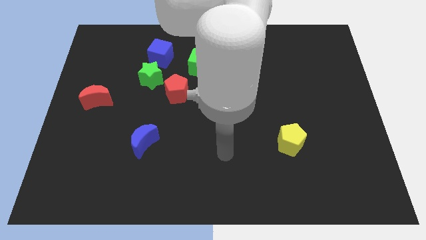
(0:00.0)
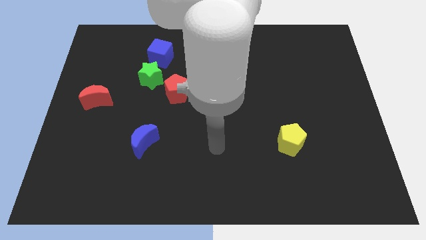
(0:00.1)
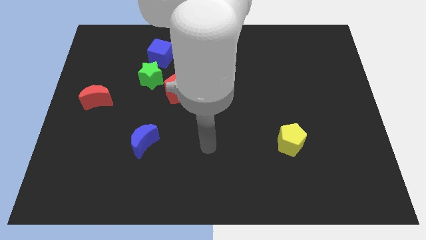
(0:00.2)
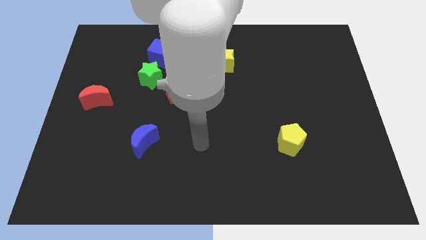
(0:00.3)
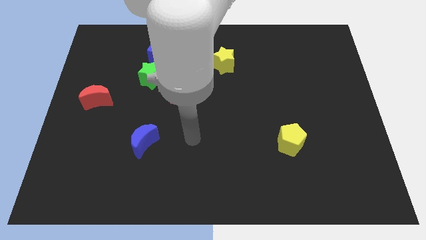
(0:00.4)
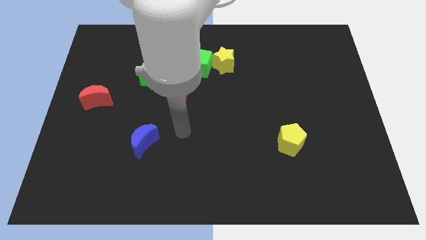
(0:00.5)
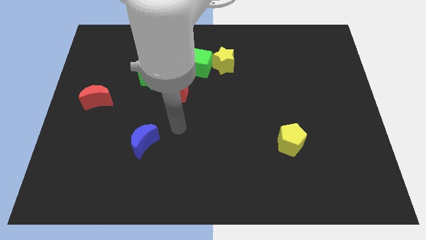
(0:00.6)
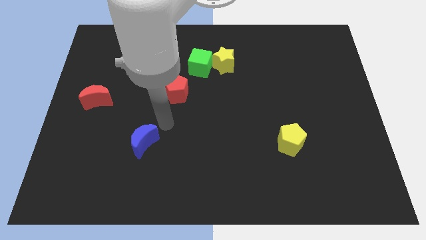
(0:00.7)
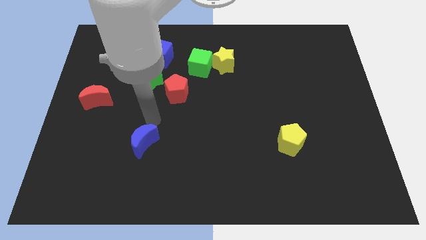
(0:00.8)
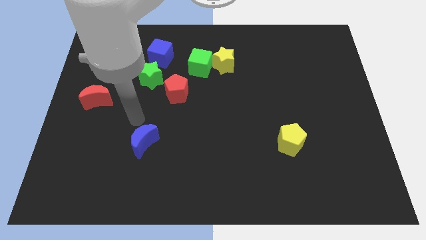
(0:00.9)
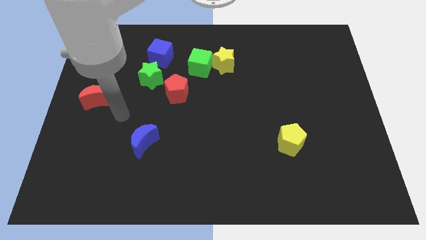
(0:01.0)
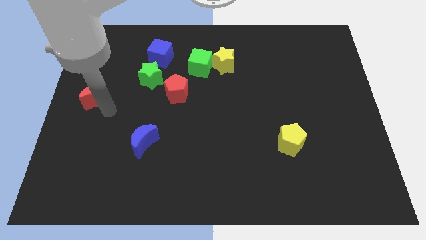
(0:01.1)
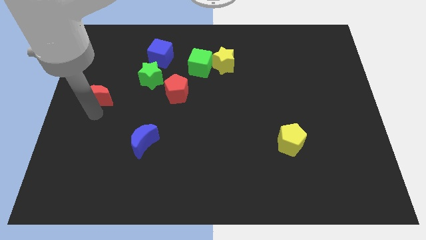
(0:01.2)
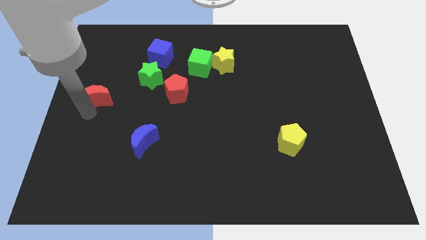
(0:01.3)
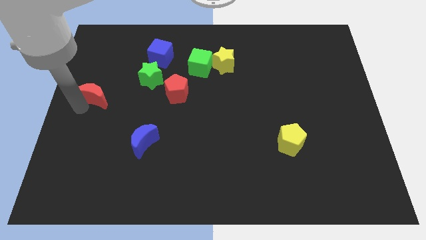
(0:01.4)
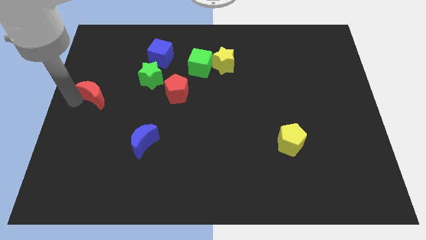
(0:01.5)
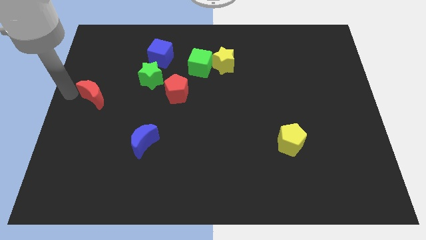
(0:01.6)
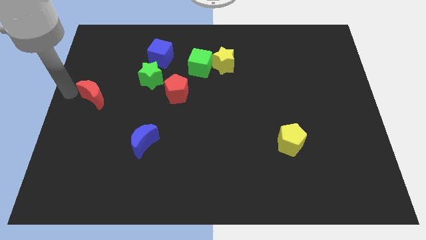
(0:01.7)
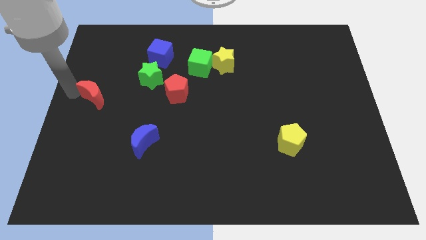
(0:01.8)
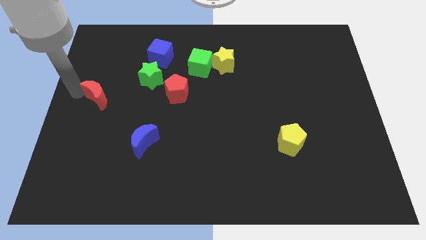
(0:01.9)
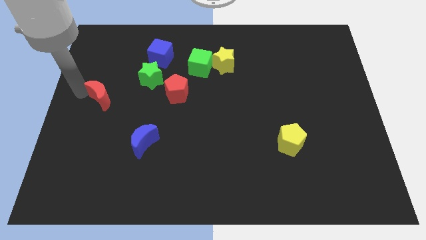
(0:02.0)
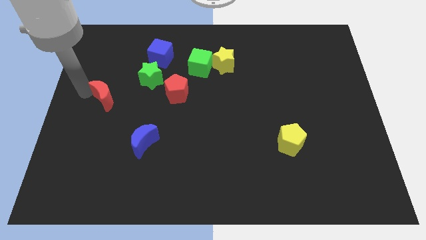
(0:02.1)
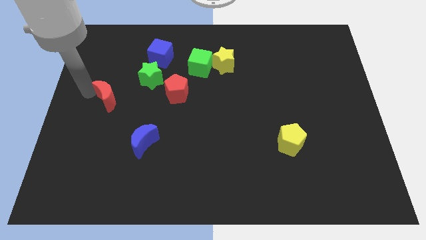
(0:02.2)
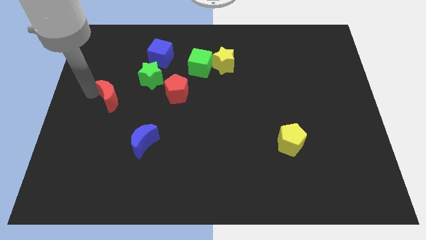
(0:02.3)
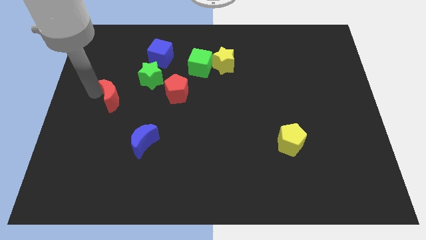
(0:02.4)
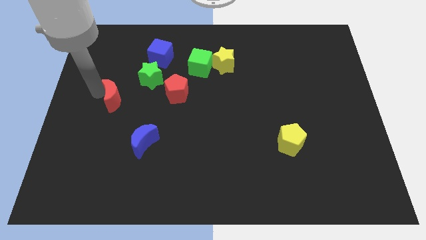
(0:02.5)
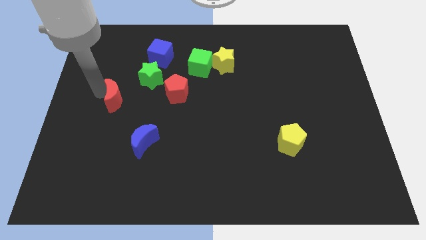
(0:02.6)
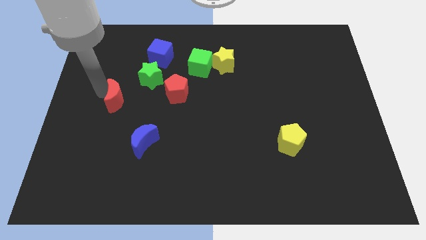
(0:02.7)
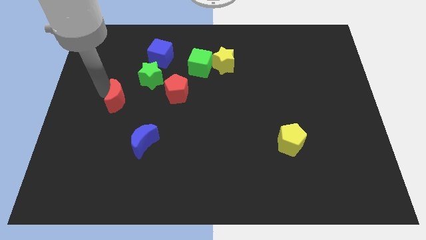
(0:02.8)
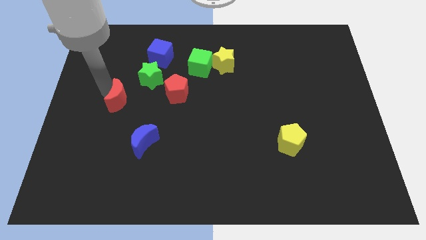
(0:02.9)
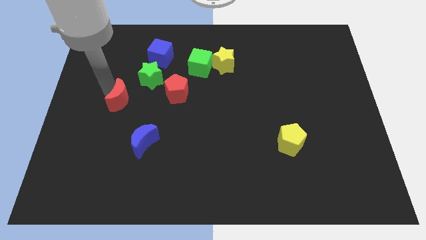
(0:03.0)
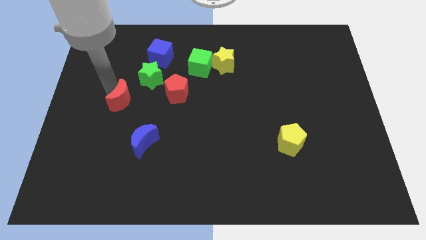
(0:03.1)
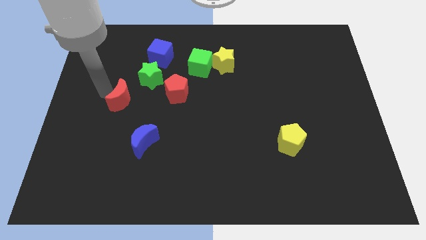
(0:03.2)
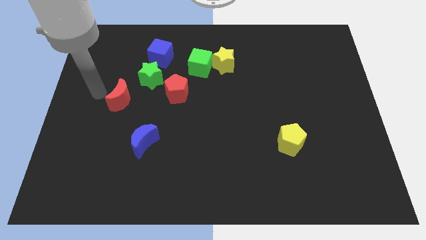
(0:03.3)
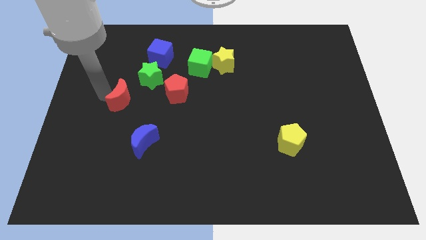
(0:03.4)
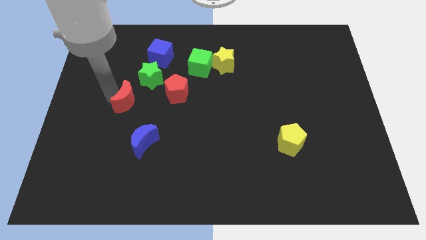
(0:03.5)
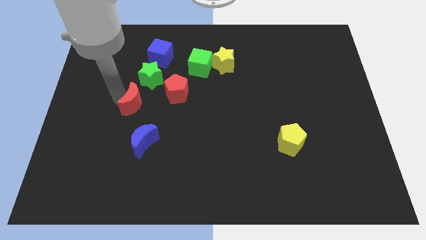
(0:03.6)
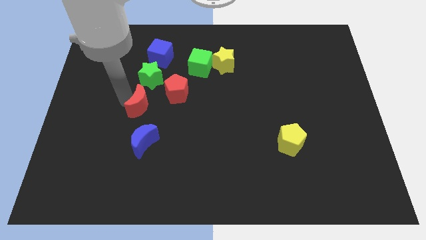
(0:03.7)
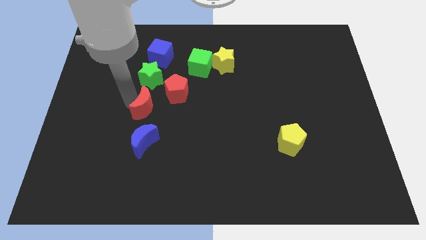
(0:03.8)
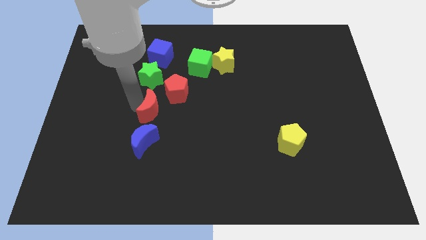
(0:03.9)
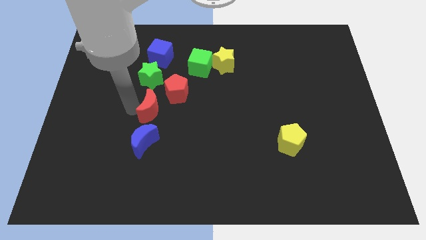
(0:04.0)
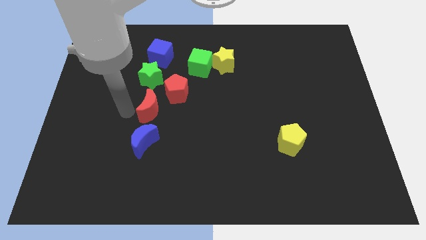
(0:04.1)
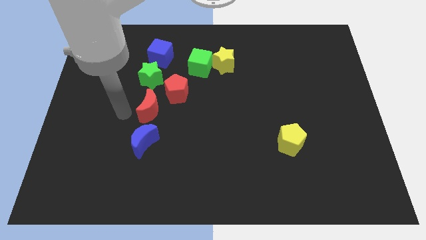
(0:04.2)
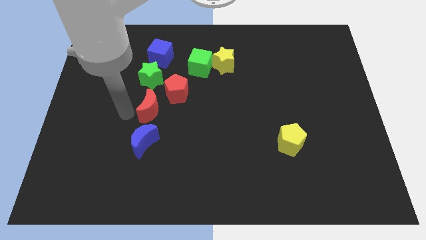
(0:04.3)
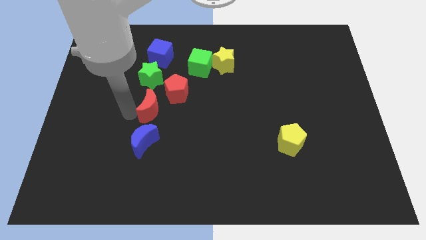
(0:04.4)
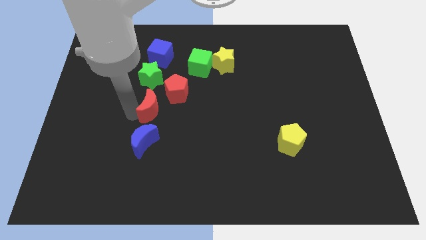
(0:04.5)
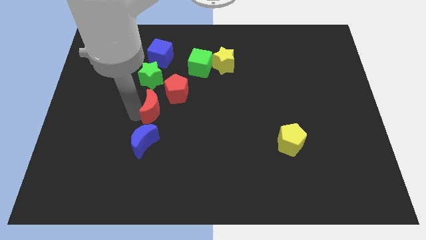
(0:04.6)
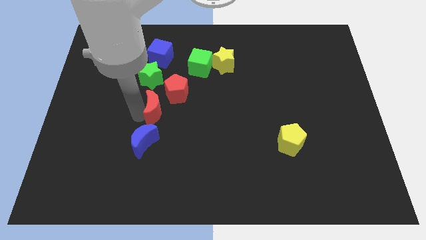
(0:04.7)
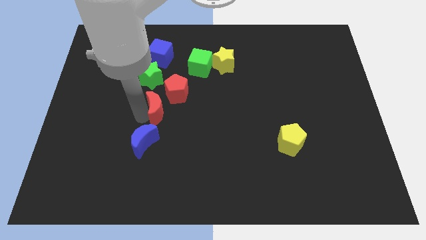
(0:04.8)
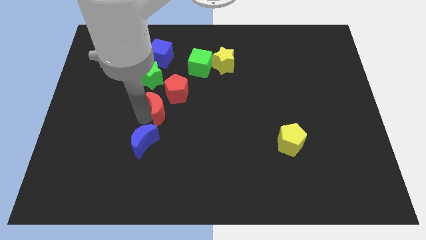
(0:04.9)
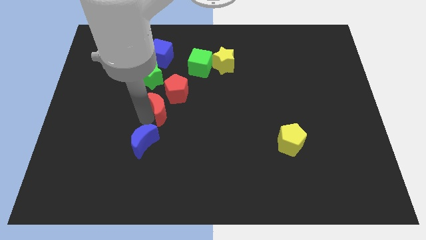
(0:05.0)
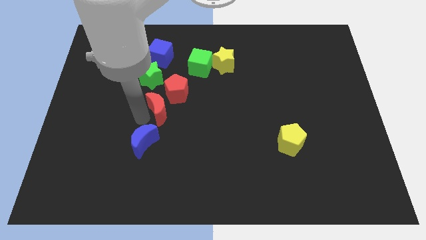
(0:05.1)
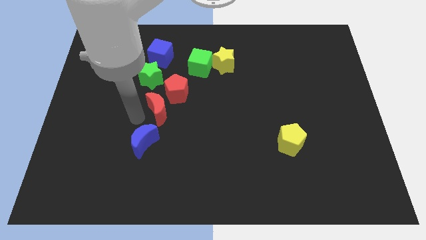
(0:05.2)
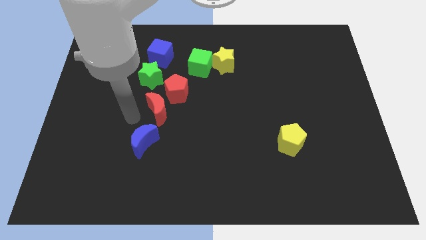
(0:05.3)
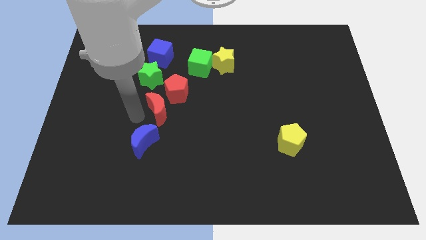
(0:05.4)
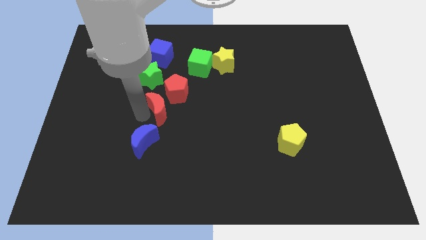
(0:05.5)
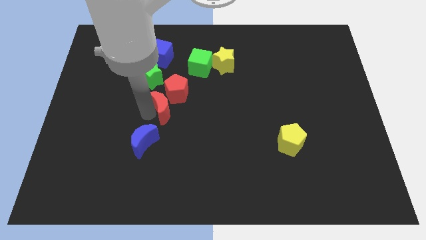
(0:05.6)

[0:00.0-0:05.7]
slide the red moon to the center of the board

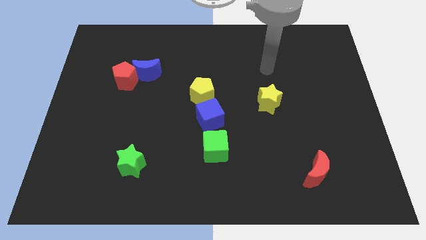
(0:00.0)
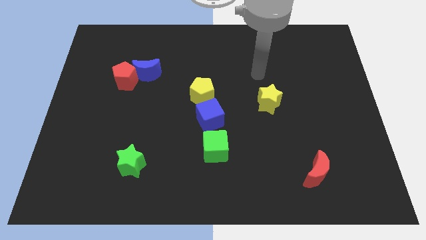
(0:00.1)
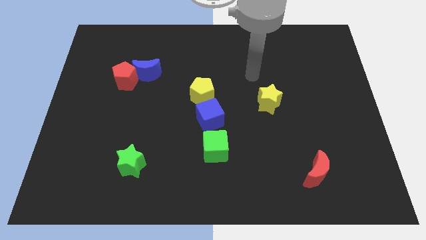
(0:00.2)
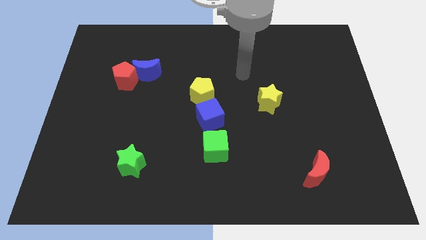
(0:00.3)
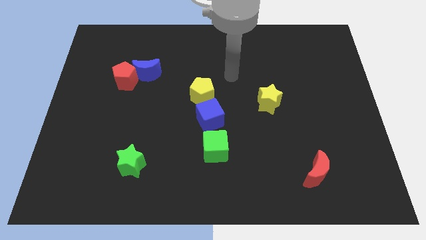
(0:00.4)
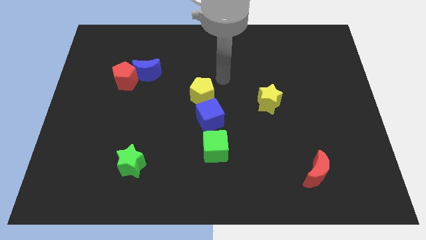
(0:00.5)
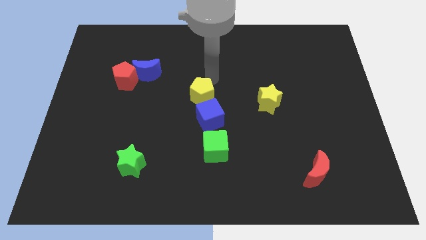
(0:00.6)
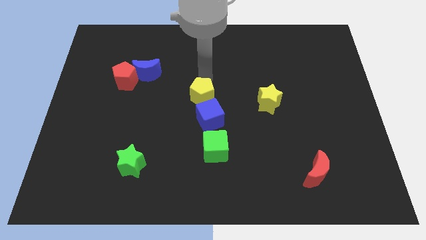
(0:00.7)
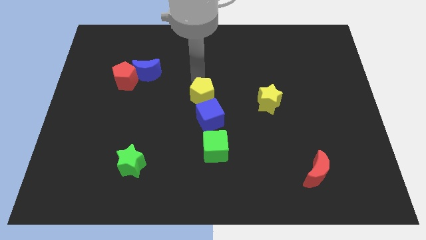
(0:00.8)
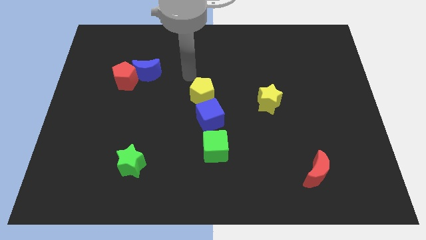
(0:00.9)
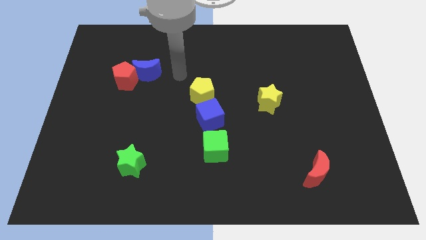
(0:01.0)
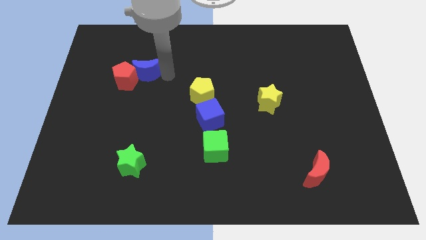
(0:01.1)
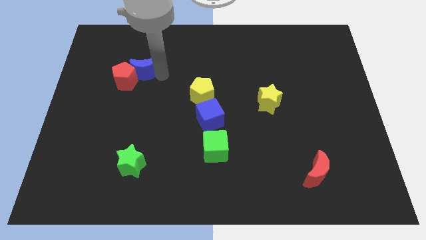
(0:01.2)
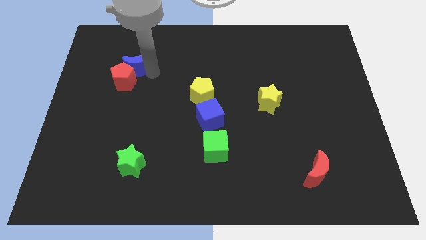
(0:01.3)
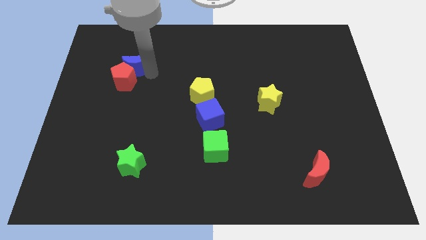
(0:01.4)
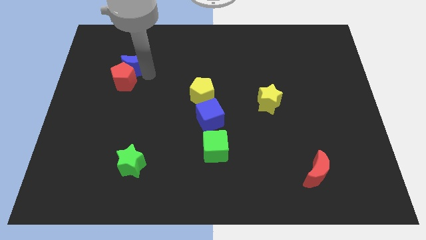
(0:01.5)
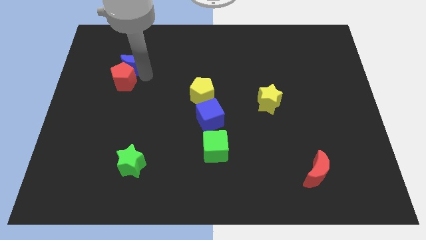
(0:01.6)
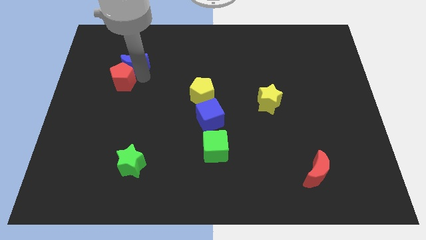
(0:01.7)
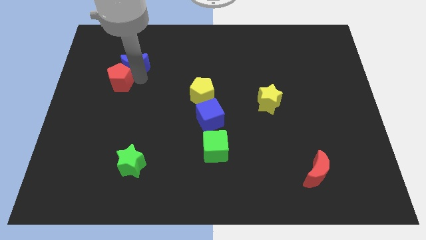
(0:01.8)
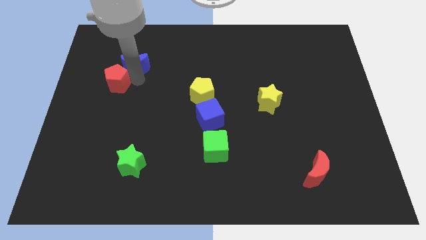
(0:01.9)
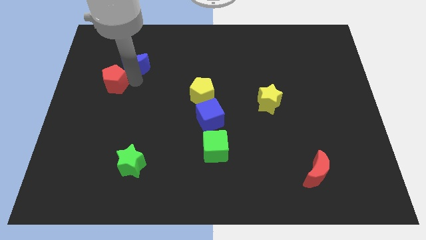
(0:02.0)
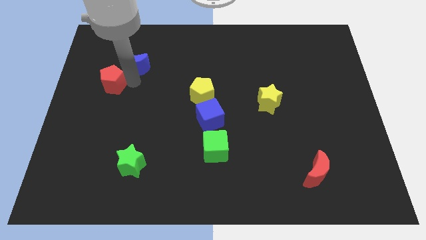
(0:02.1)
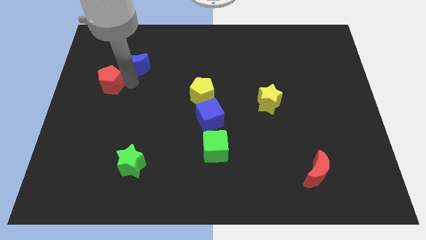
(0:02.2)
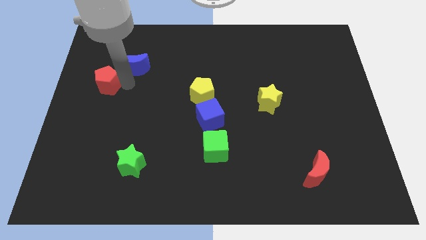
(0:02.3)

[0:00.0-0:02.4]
push the red pentagon to the left side of the board
